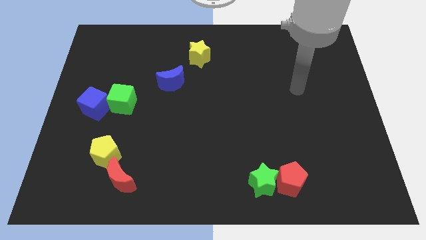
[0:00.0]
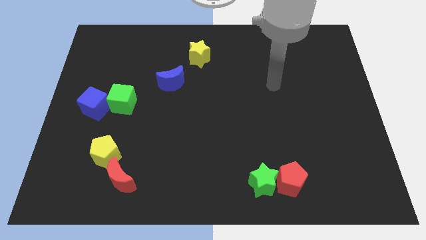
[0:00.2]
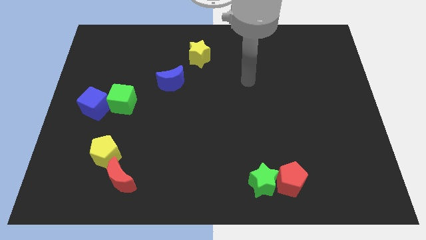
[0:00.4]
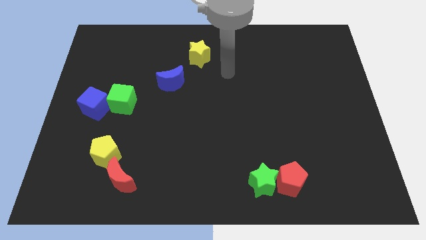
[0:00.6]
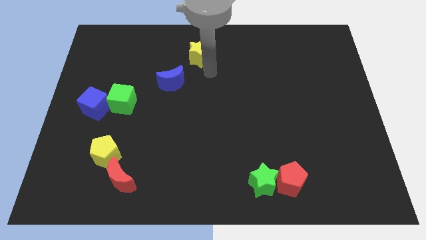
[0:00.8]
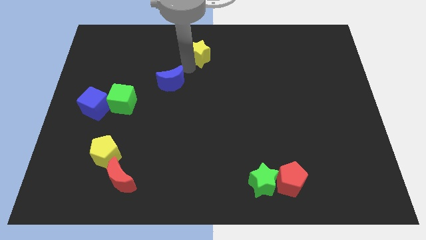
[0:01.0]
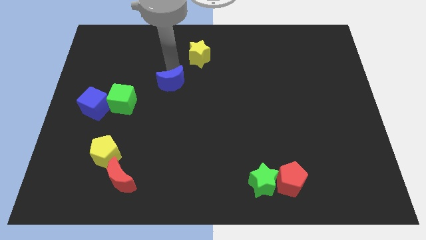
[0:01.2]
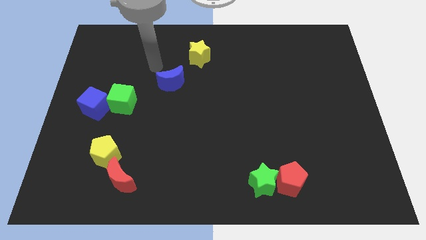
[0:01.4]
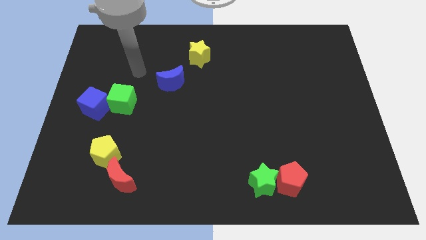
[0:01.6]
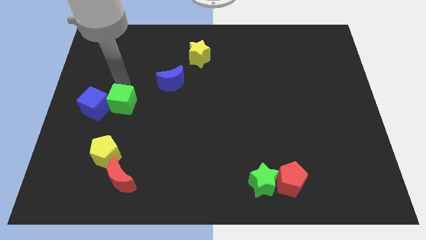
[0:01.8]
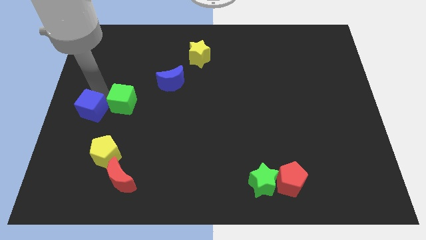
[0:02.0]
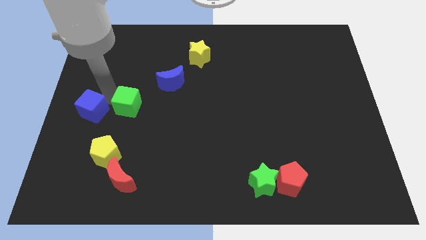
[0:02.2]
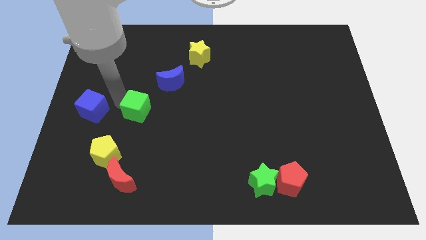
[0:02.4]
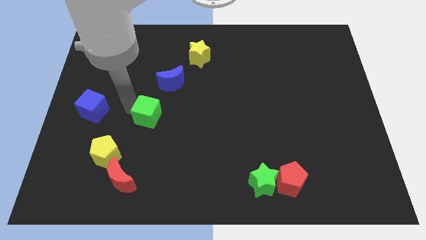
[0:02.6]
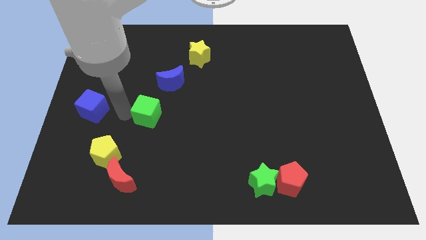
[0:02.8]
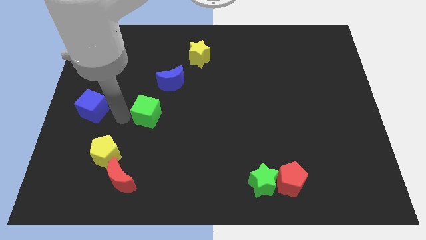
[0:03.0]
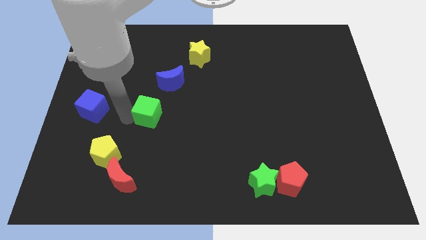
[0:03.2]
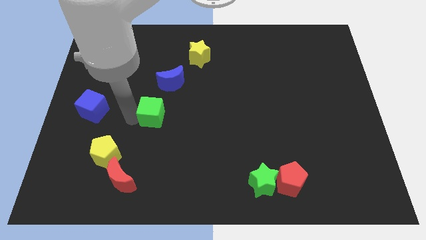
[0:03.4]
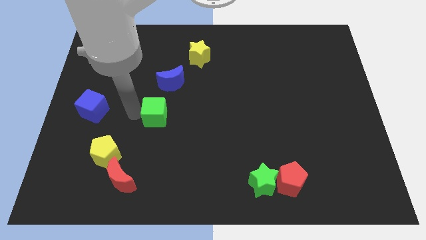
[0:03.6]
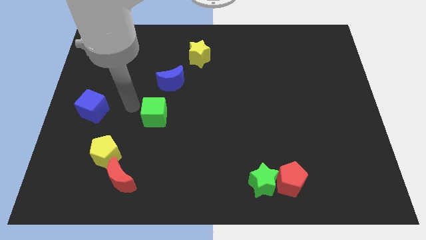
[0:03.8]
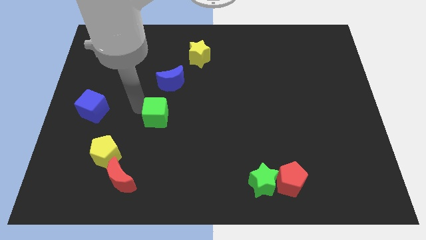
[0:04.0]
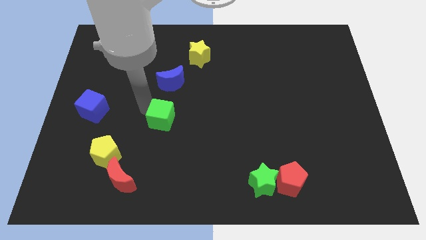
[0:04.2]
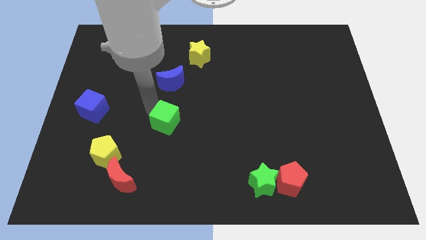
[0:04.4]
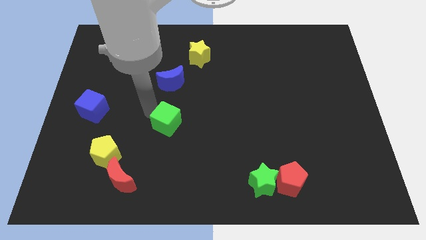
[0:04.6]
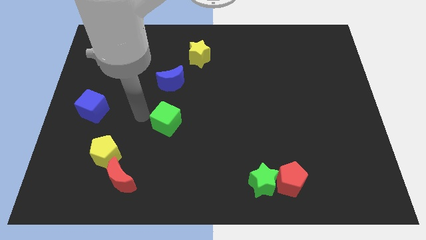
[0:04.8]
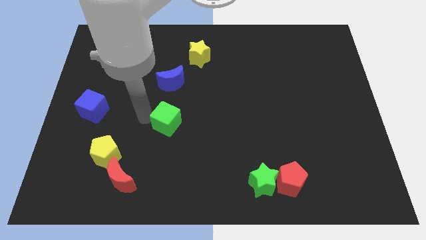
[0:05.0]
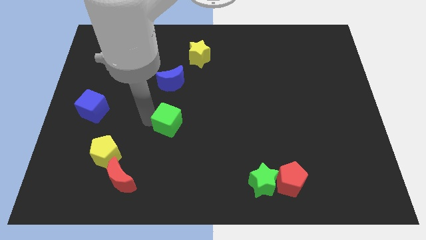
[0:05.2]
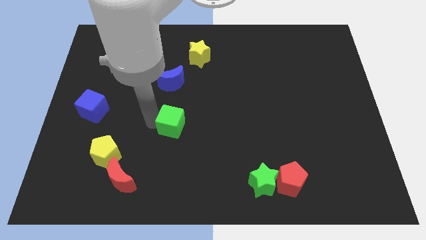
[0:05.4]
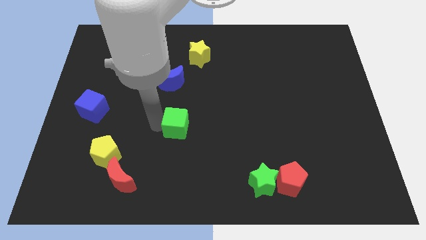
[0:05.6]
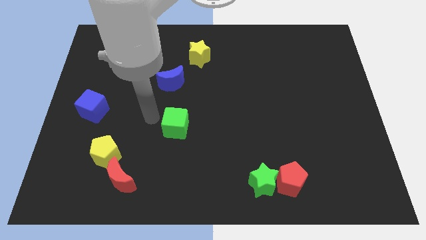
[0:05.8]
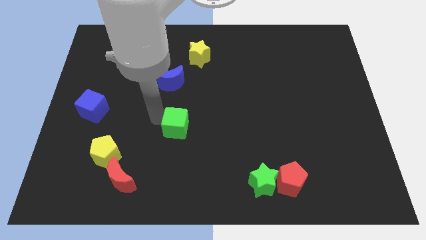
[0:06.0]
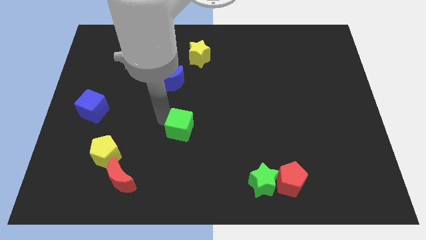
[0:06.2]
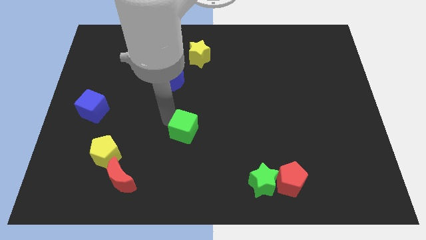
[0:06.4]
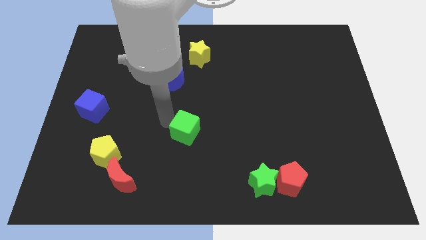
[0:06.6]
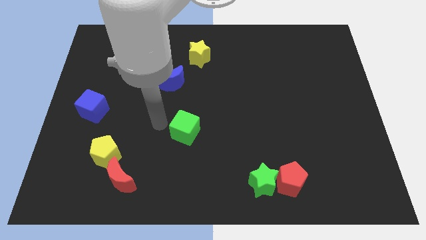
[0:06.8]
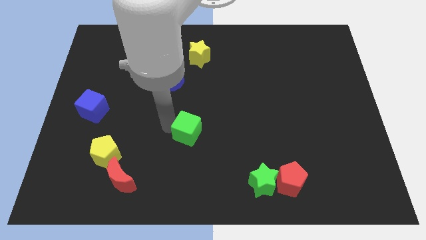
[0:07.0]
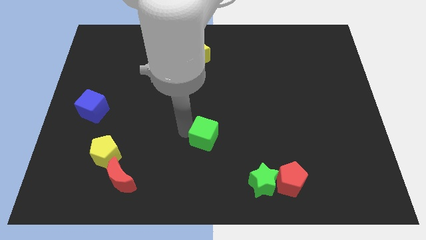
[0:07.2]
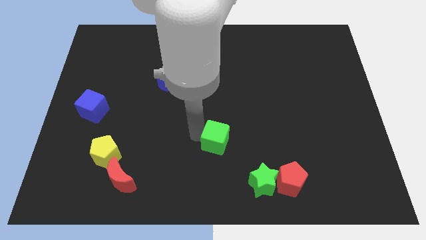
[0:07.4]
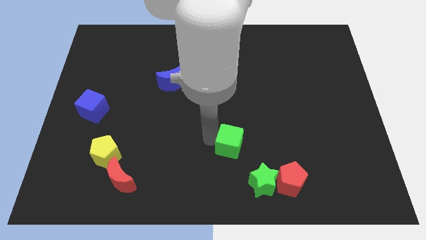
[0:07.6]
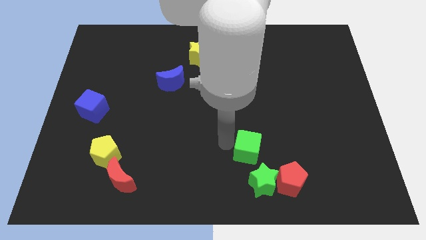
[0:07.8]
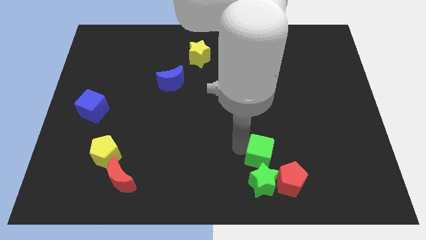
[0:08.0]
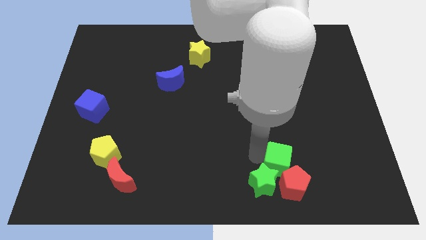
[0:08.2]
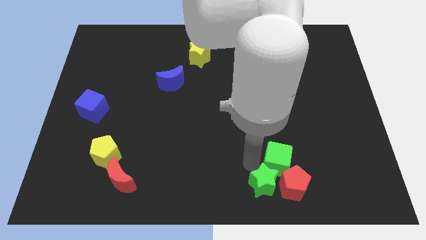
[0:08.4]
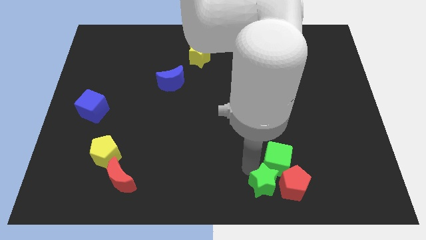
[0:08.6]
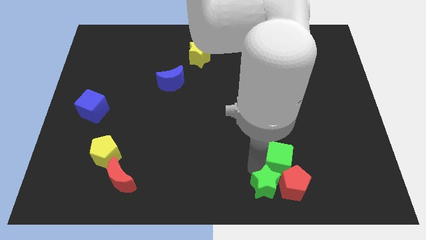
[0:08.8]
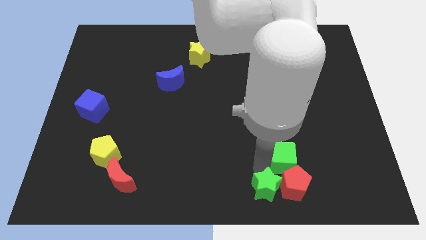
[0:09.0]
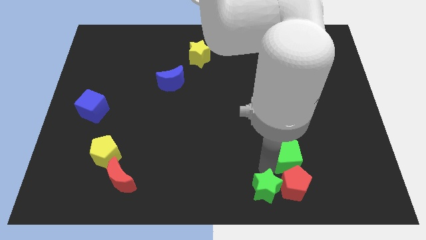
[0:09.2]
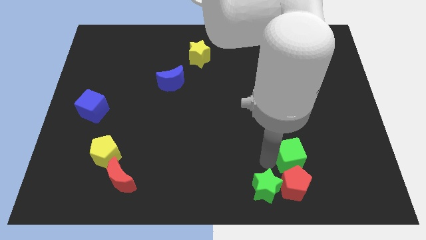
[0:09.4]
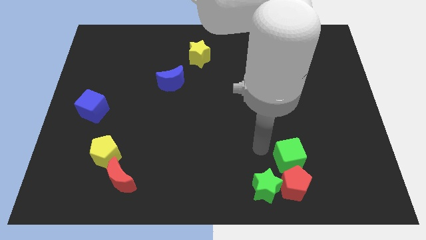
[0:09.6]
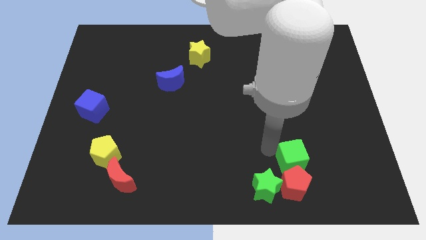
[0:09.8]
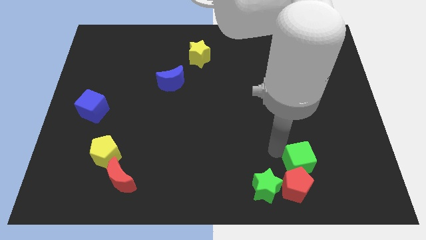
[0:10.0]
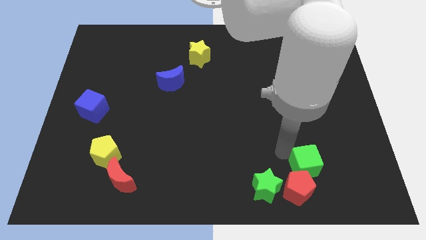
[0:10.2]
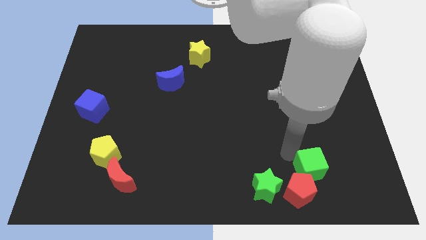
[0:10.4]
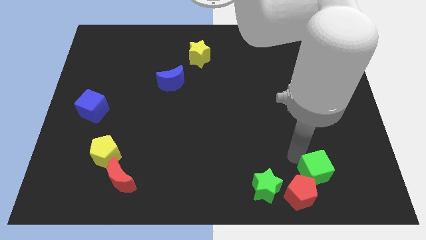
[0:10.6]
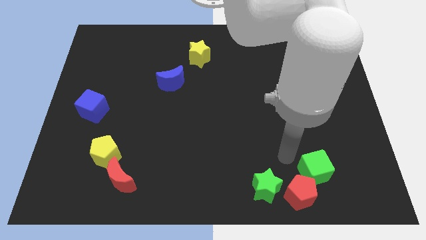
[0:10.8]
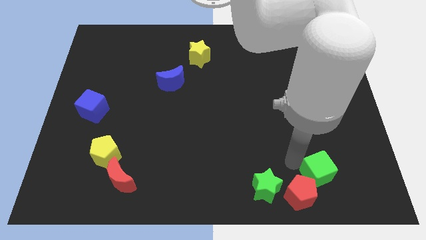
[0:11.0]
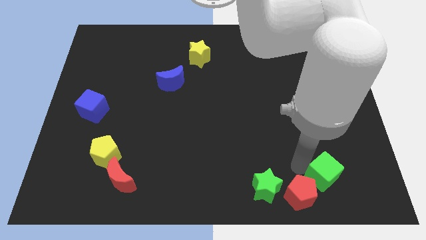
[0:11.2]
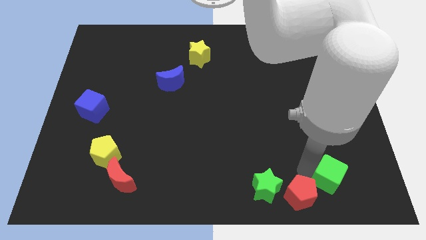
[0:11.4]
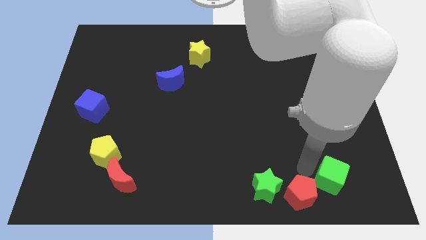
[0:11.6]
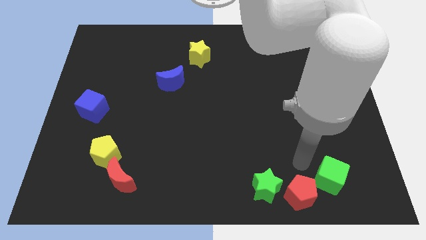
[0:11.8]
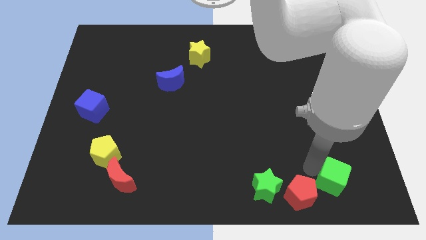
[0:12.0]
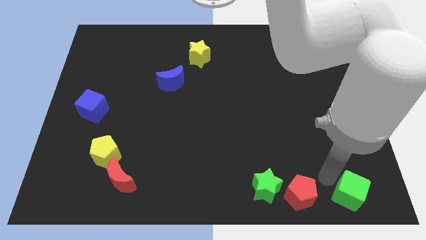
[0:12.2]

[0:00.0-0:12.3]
put the green cube to the bottom right of the board

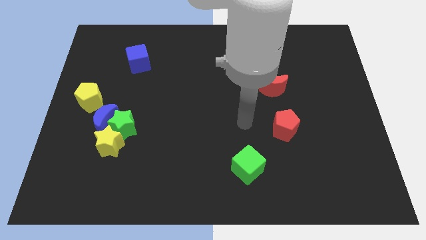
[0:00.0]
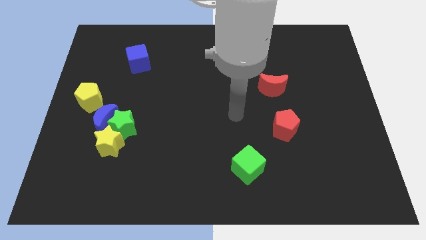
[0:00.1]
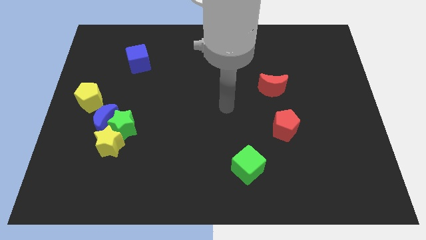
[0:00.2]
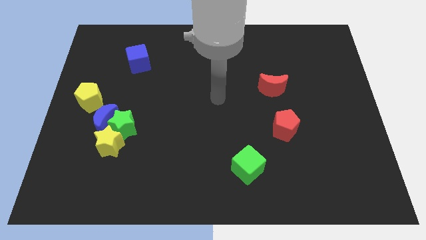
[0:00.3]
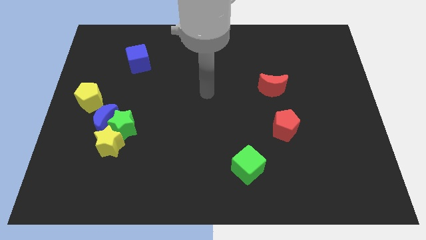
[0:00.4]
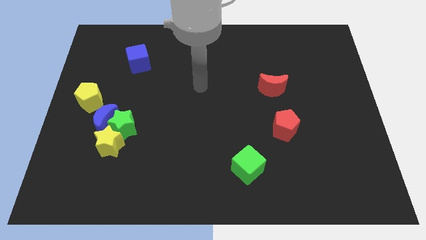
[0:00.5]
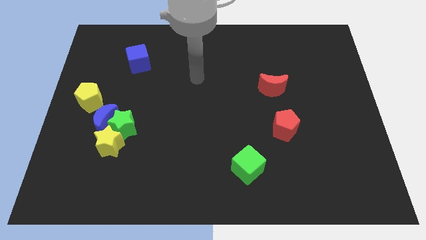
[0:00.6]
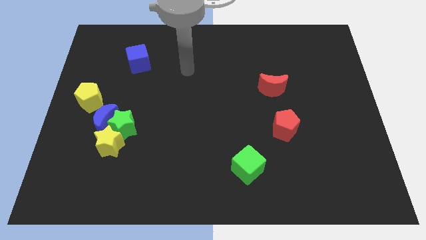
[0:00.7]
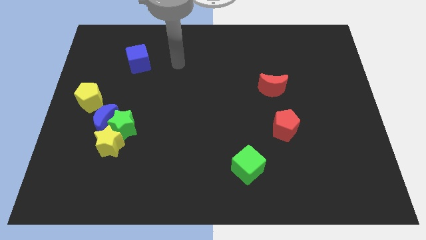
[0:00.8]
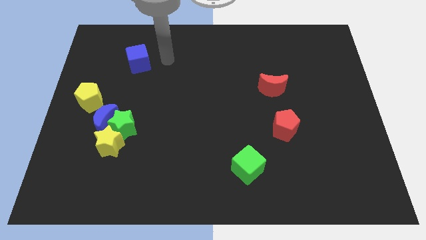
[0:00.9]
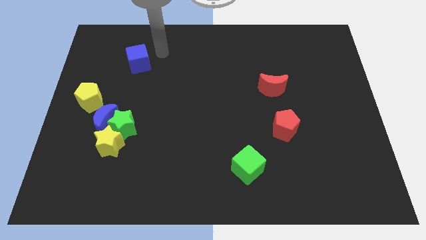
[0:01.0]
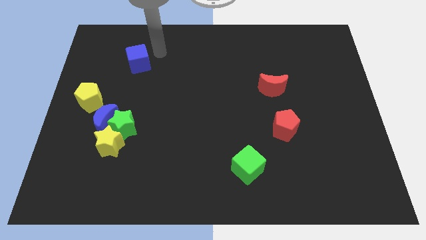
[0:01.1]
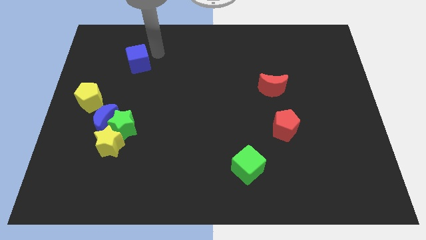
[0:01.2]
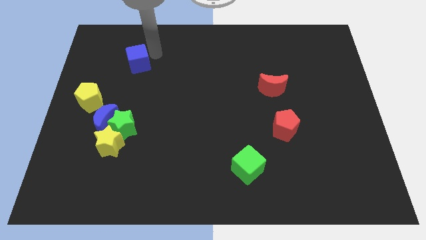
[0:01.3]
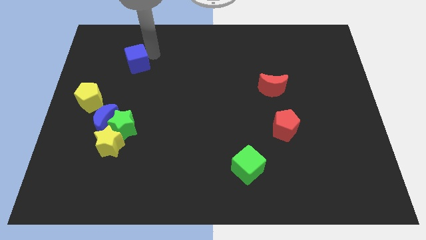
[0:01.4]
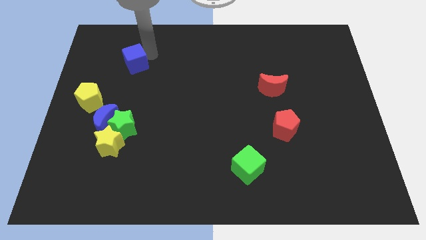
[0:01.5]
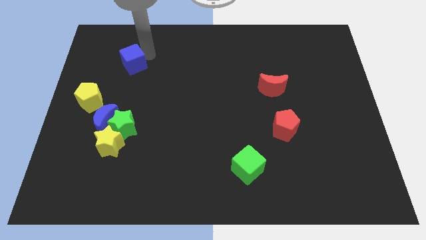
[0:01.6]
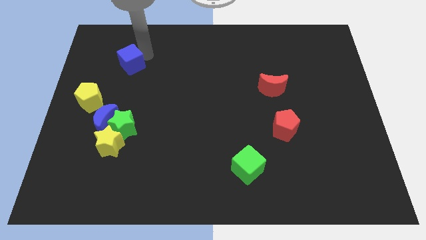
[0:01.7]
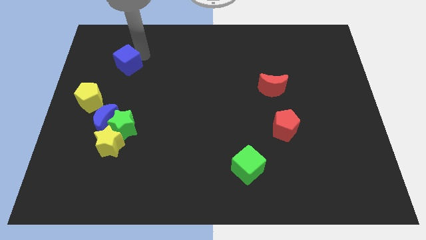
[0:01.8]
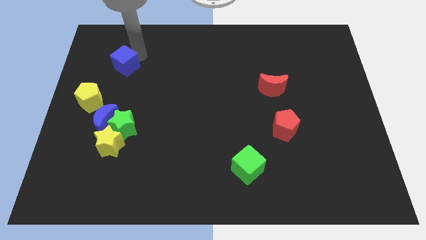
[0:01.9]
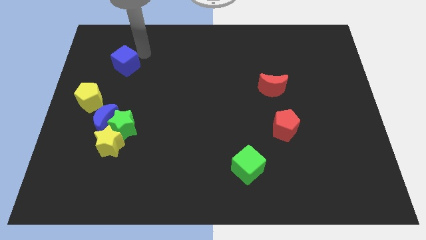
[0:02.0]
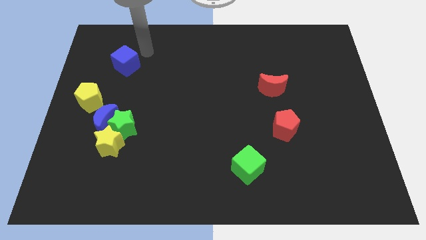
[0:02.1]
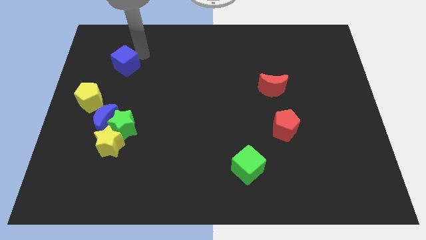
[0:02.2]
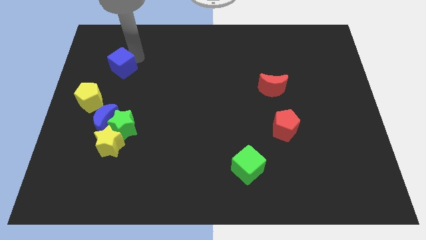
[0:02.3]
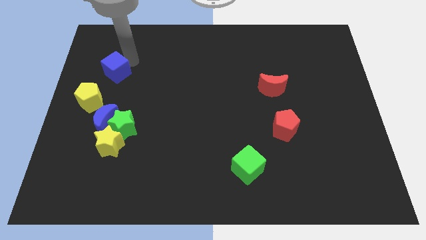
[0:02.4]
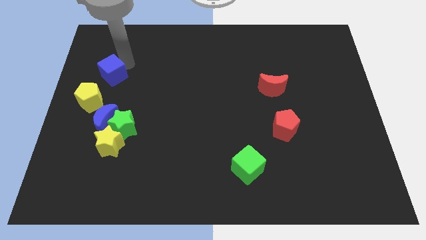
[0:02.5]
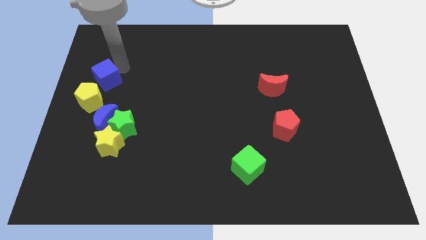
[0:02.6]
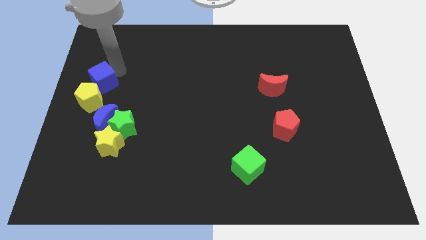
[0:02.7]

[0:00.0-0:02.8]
push the blue cube to the left side of the board
